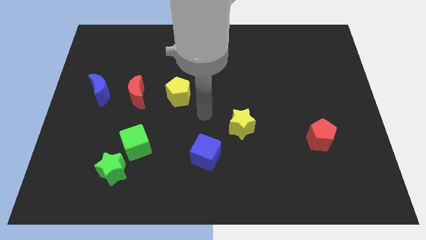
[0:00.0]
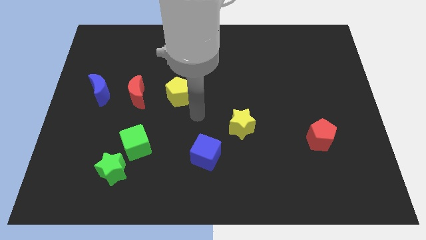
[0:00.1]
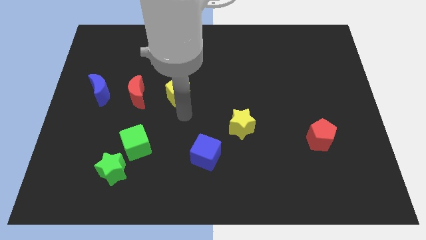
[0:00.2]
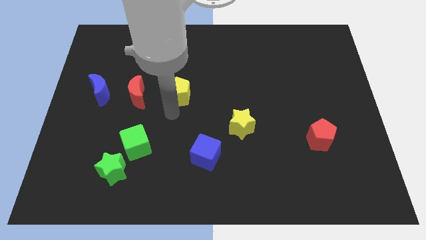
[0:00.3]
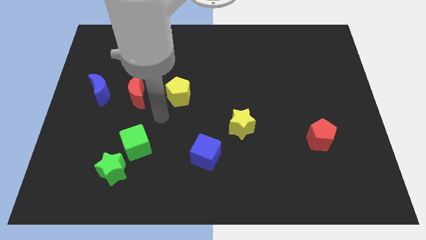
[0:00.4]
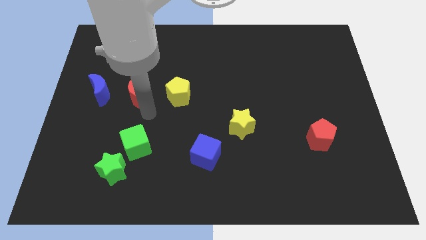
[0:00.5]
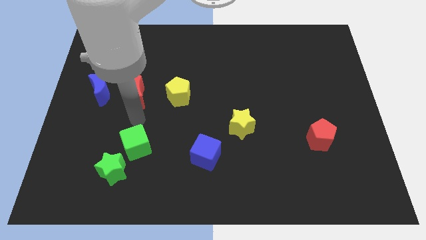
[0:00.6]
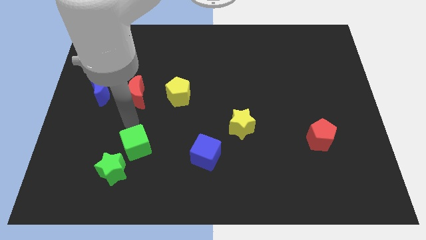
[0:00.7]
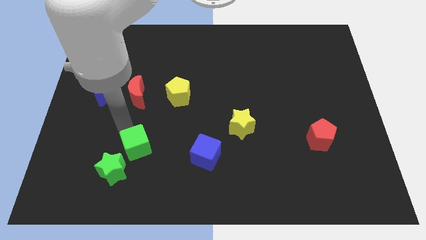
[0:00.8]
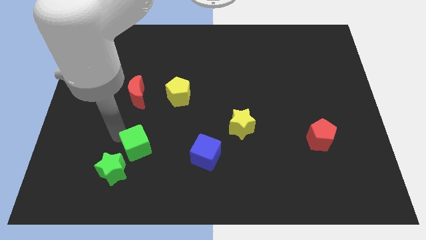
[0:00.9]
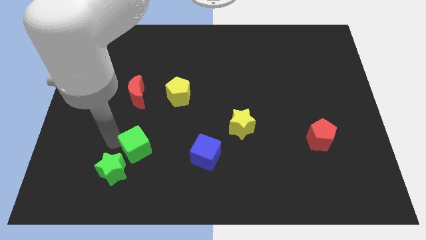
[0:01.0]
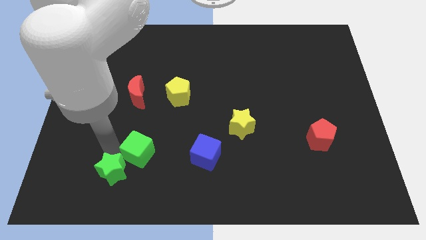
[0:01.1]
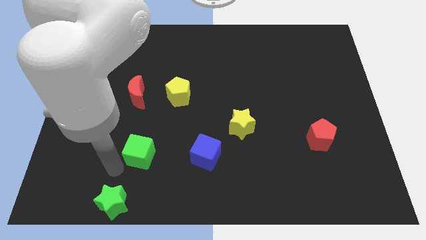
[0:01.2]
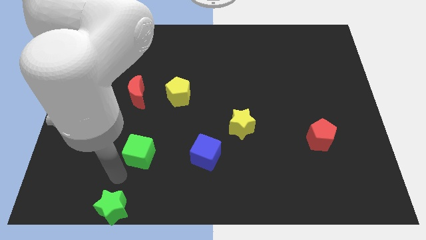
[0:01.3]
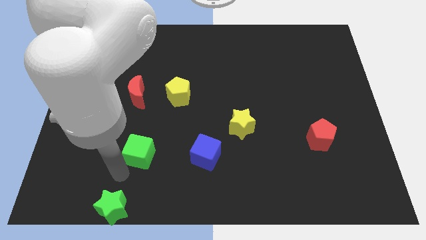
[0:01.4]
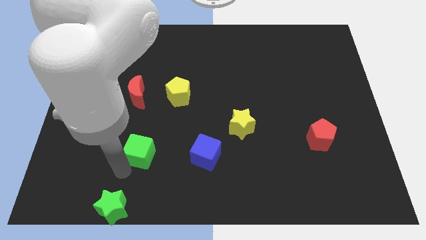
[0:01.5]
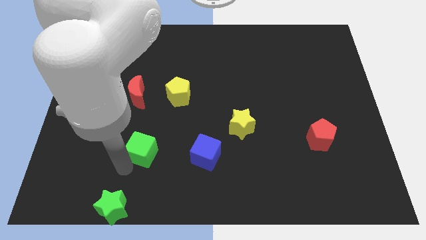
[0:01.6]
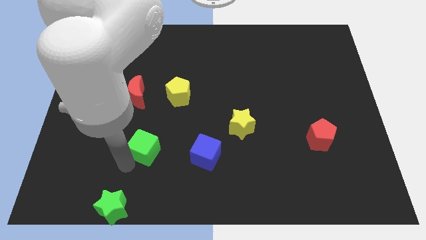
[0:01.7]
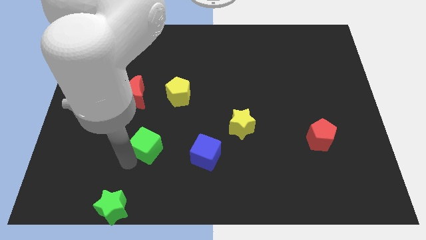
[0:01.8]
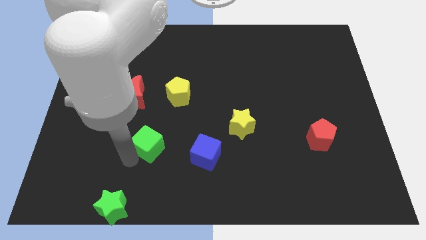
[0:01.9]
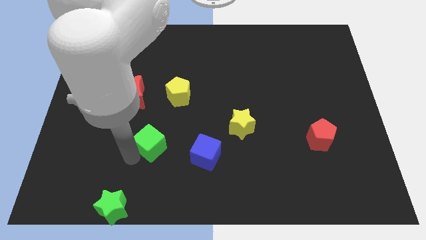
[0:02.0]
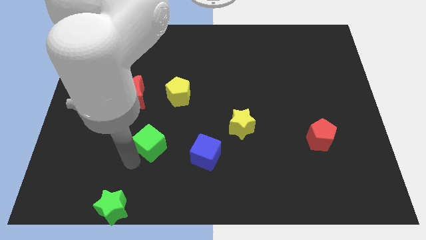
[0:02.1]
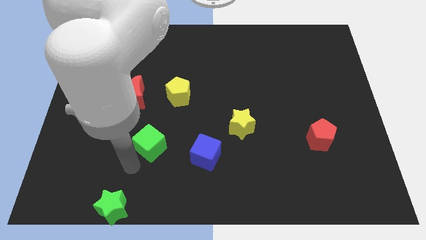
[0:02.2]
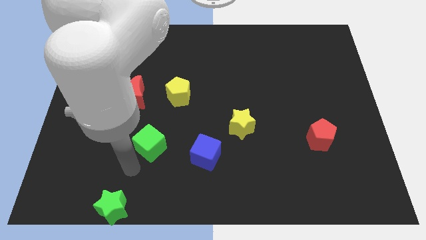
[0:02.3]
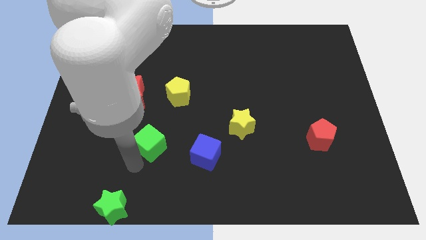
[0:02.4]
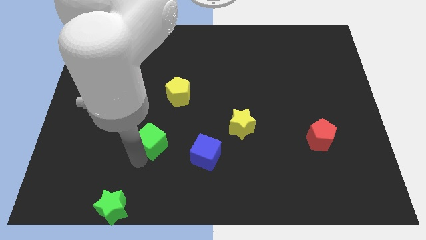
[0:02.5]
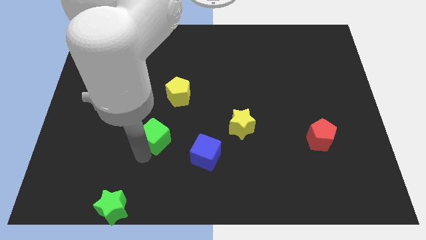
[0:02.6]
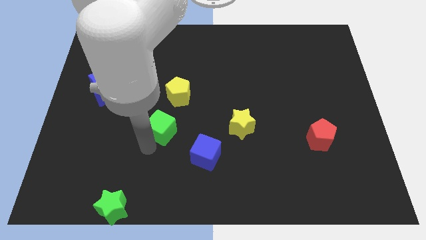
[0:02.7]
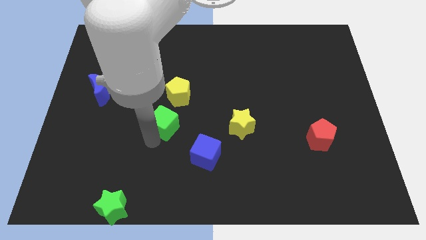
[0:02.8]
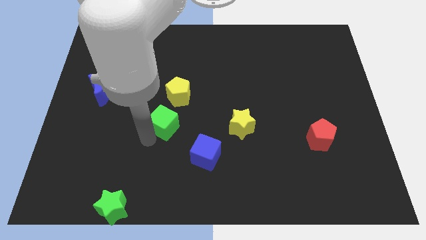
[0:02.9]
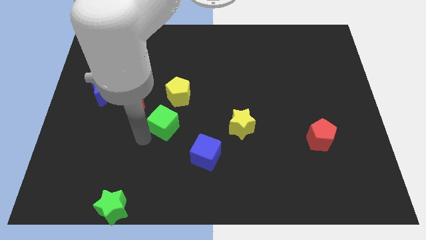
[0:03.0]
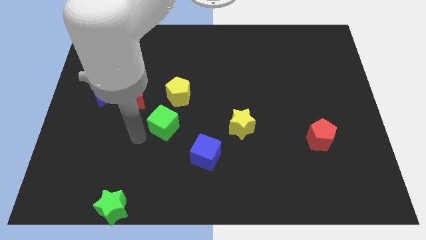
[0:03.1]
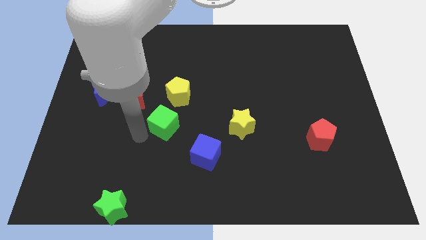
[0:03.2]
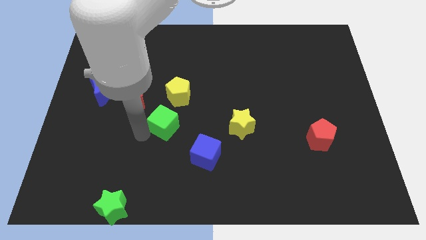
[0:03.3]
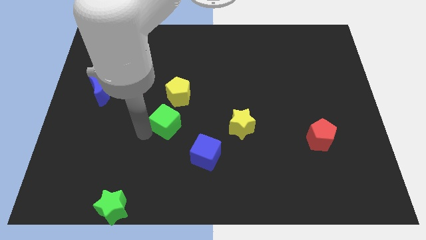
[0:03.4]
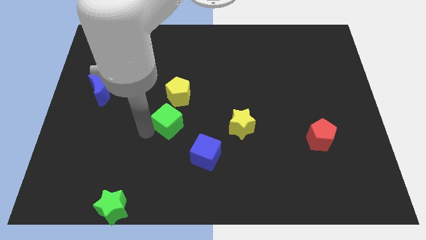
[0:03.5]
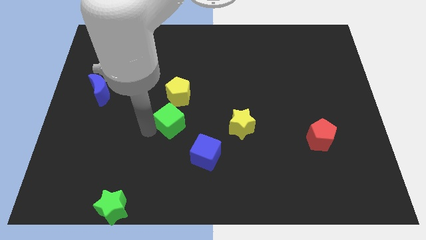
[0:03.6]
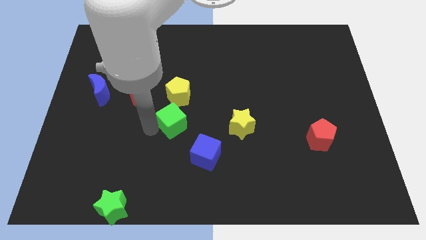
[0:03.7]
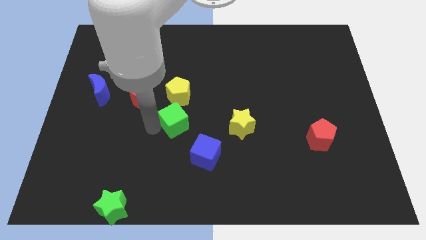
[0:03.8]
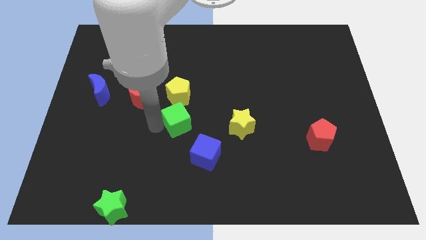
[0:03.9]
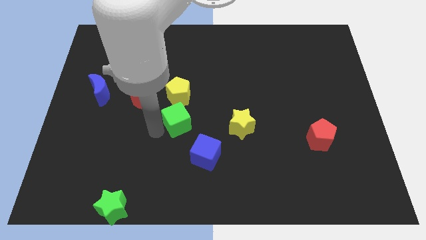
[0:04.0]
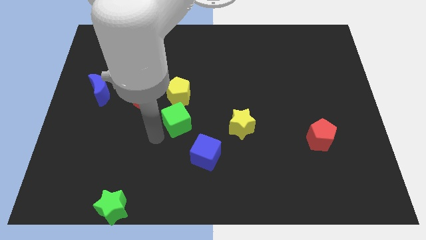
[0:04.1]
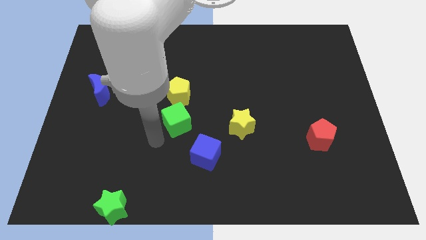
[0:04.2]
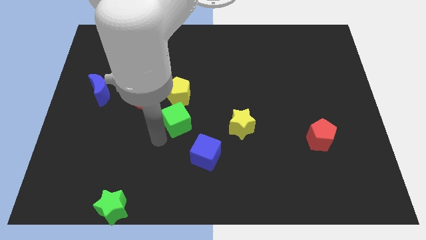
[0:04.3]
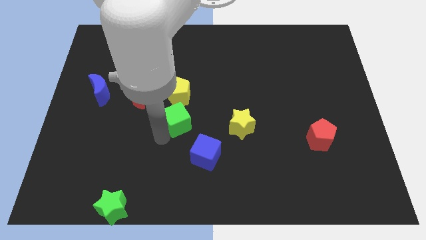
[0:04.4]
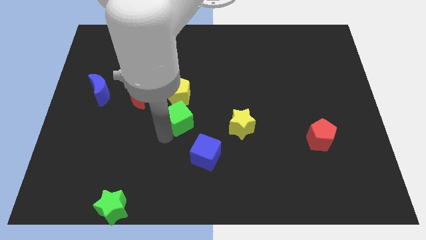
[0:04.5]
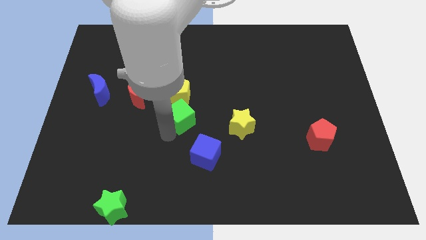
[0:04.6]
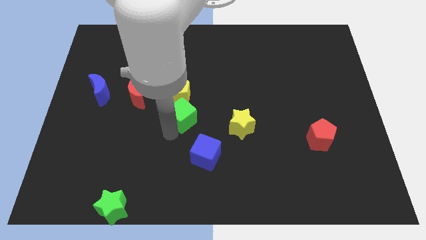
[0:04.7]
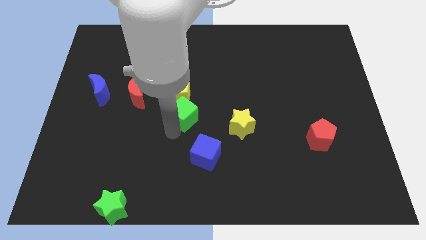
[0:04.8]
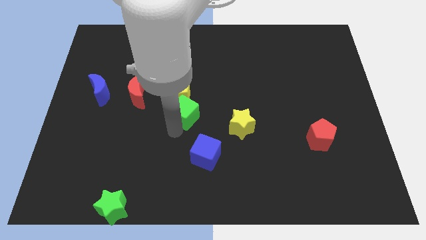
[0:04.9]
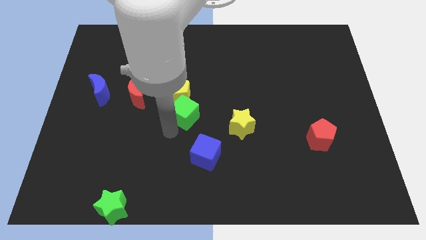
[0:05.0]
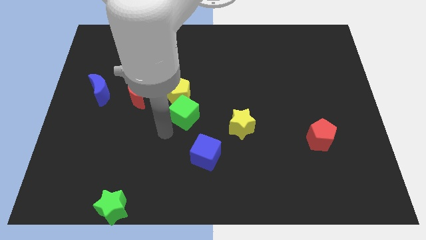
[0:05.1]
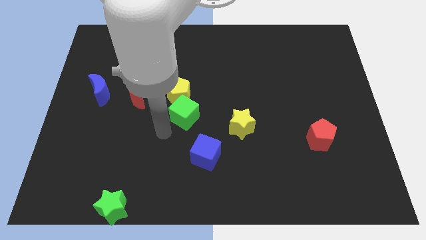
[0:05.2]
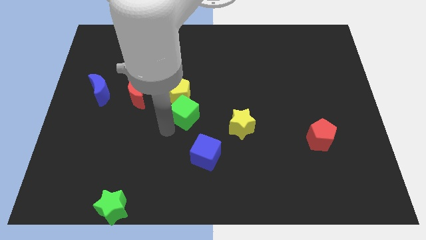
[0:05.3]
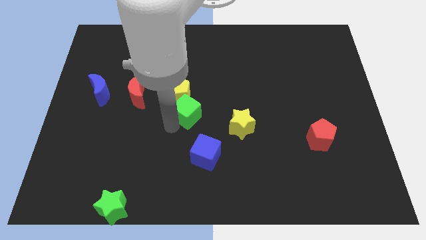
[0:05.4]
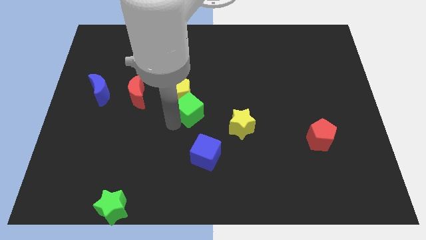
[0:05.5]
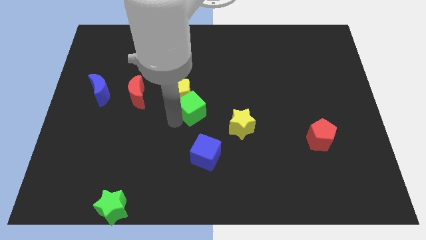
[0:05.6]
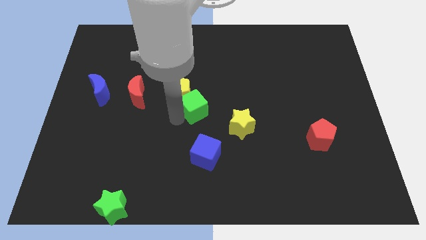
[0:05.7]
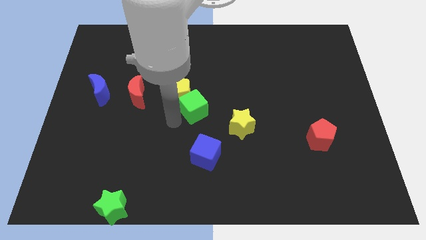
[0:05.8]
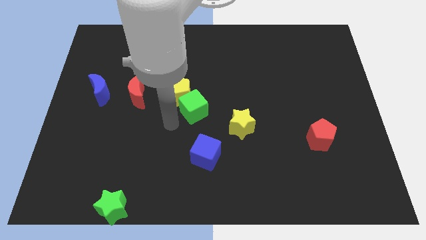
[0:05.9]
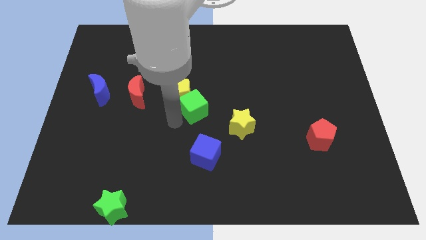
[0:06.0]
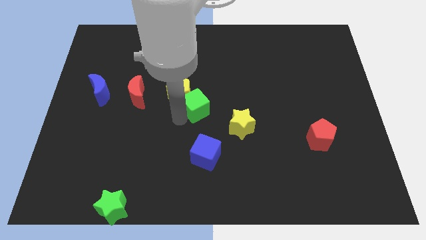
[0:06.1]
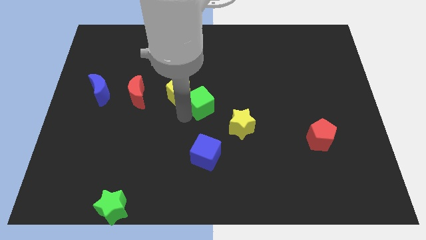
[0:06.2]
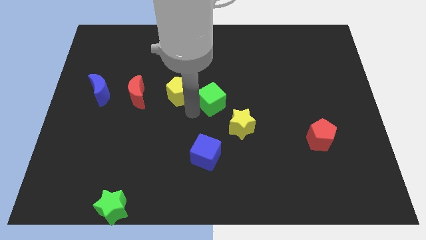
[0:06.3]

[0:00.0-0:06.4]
slide the green cube up and right diagonally

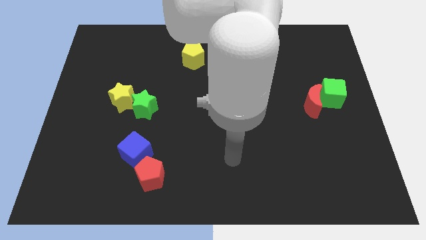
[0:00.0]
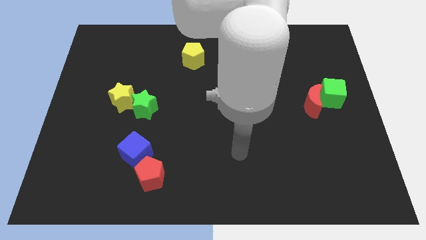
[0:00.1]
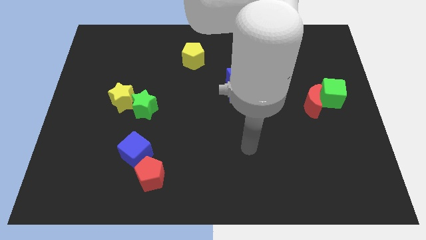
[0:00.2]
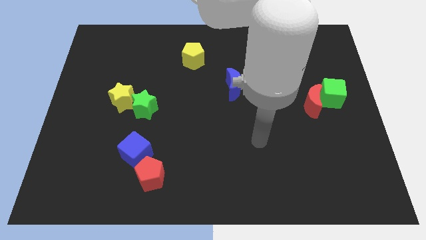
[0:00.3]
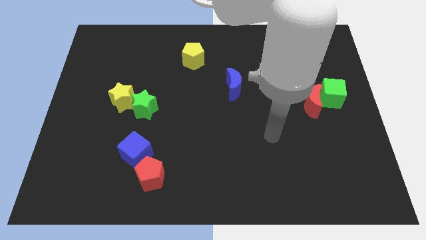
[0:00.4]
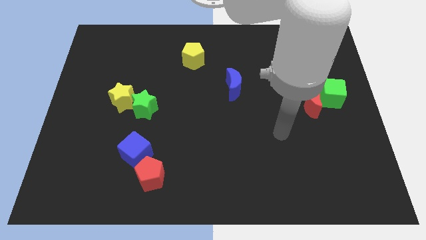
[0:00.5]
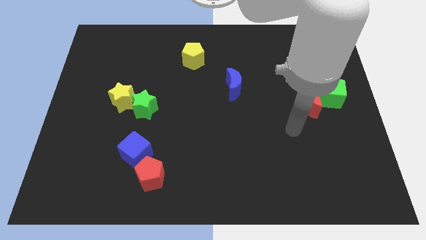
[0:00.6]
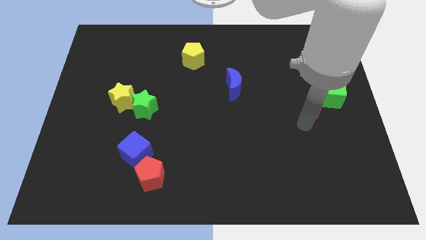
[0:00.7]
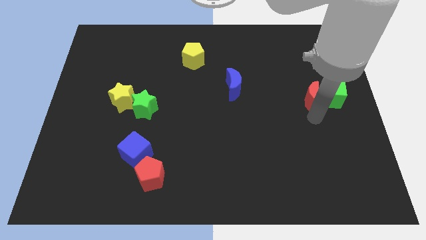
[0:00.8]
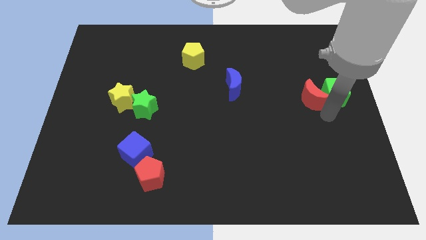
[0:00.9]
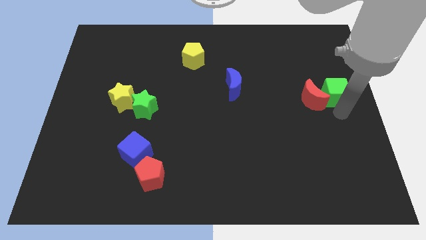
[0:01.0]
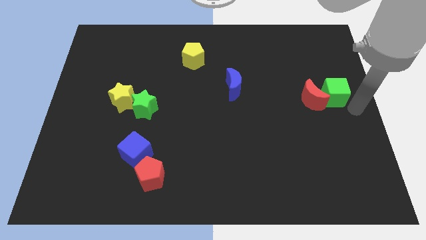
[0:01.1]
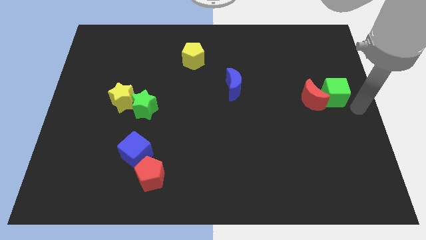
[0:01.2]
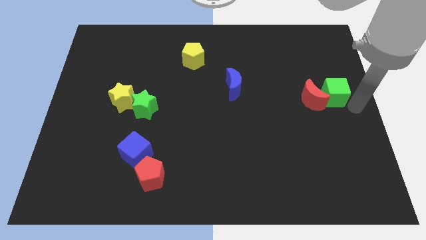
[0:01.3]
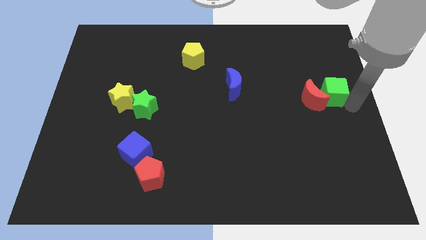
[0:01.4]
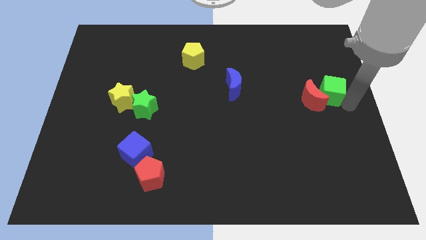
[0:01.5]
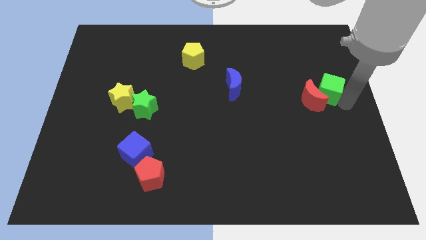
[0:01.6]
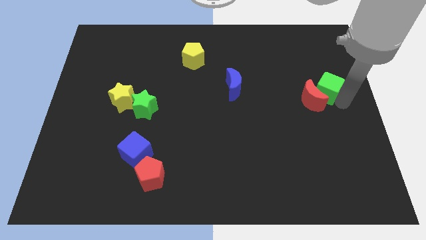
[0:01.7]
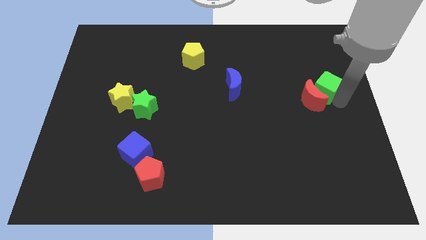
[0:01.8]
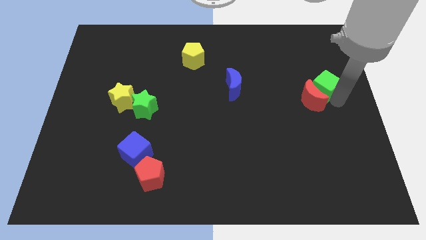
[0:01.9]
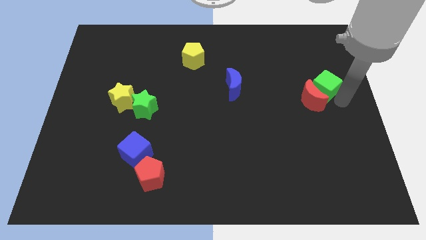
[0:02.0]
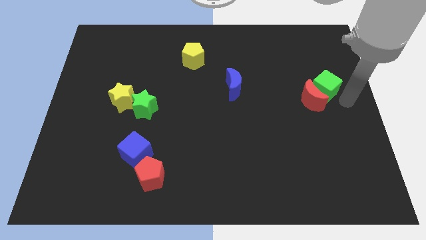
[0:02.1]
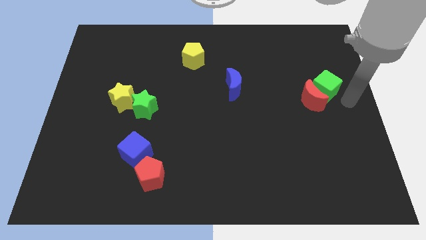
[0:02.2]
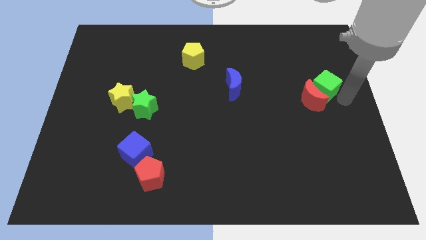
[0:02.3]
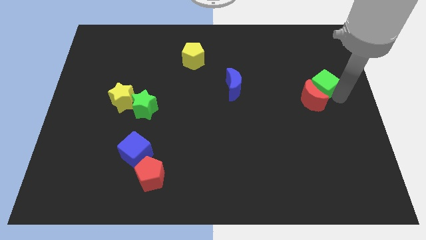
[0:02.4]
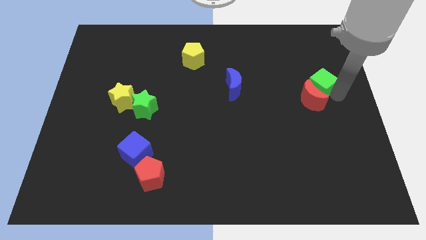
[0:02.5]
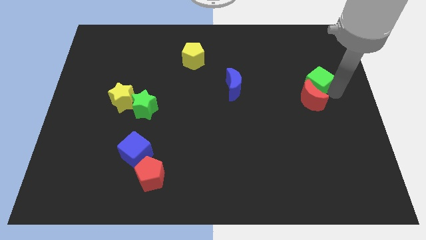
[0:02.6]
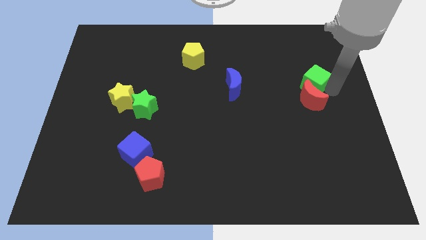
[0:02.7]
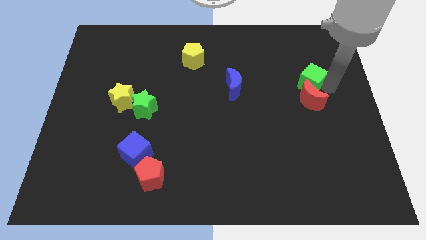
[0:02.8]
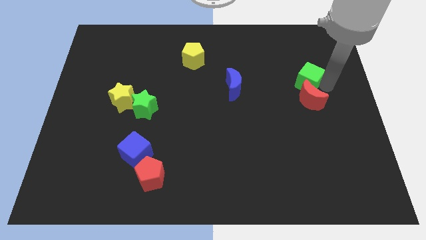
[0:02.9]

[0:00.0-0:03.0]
slide the green cube a little bit up and to the left diagonally
